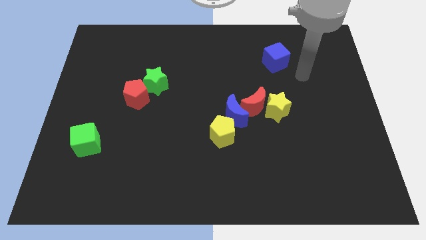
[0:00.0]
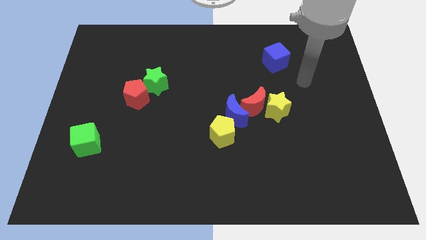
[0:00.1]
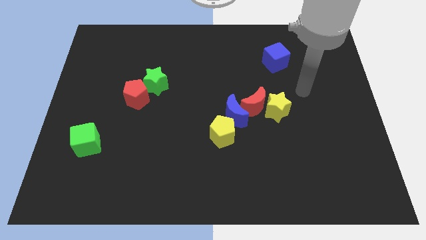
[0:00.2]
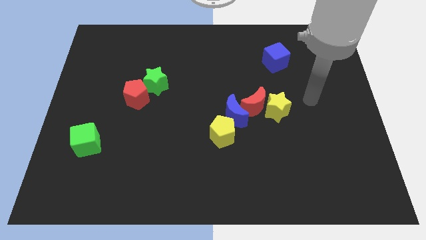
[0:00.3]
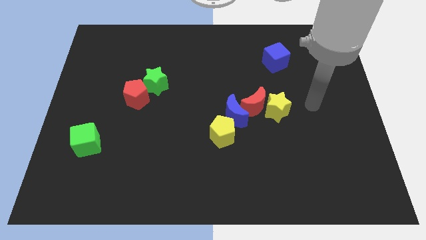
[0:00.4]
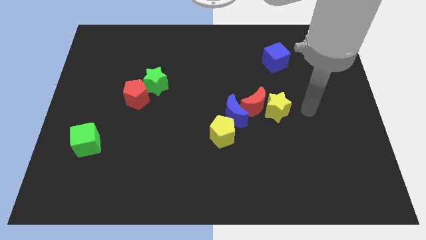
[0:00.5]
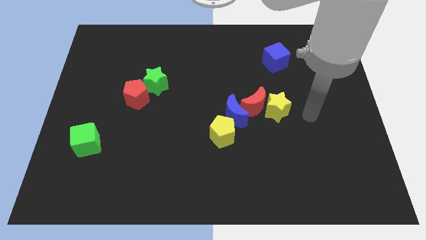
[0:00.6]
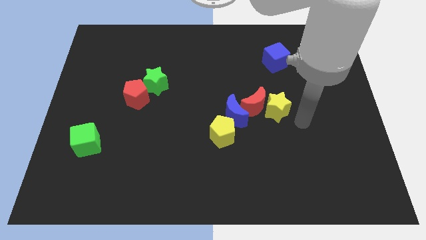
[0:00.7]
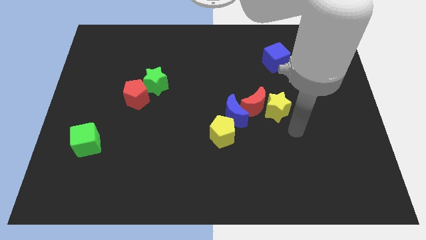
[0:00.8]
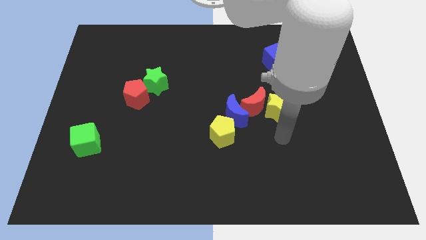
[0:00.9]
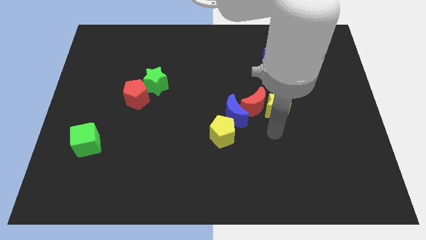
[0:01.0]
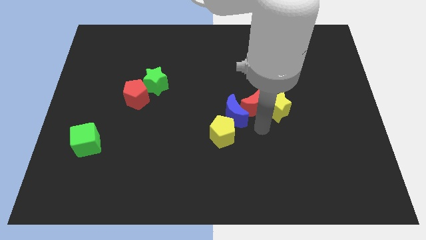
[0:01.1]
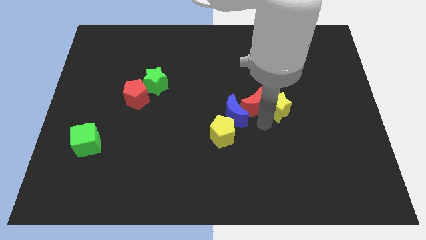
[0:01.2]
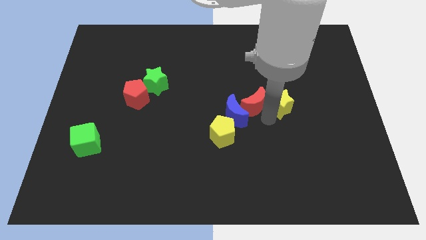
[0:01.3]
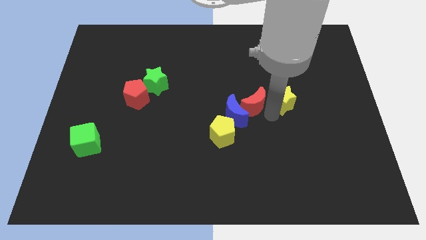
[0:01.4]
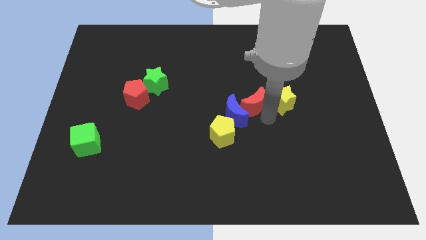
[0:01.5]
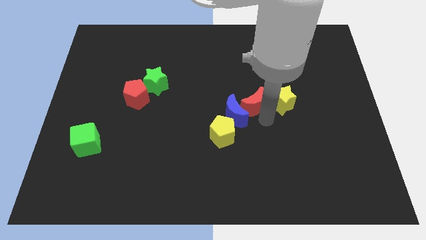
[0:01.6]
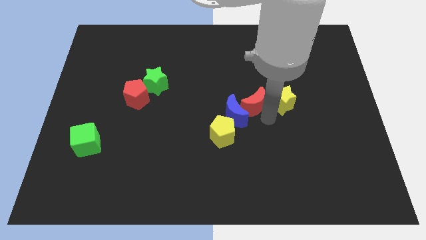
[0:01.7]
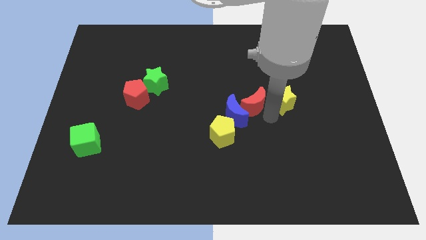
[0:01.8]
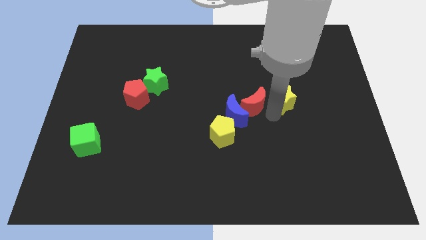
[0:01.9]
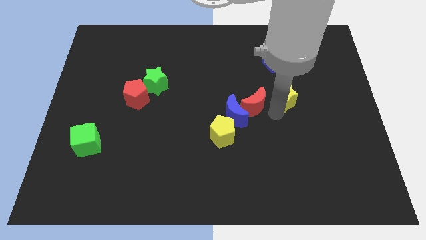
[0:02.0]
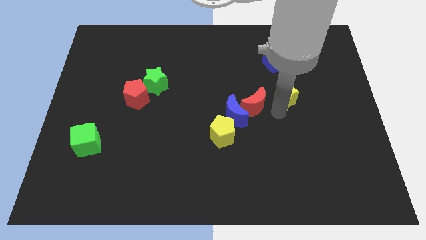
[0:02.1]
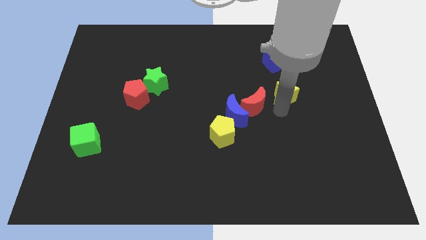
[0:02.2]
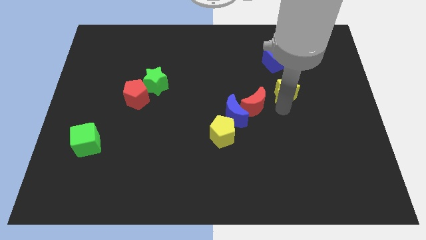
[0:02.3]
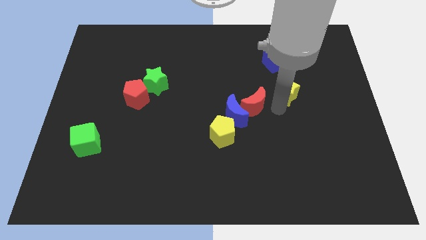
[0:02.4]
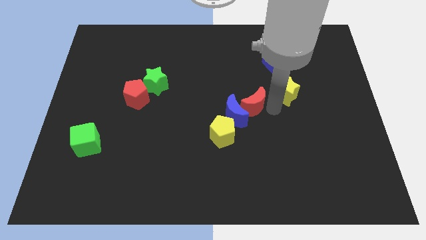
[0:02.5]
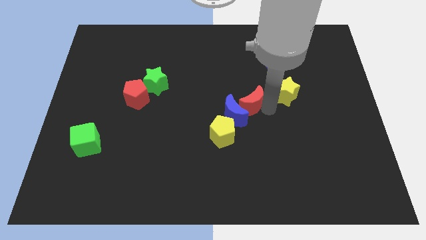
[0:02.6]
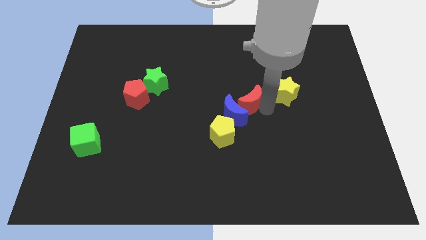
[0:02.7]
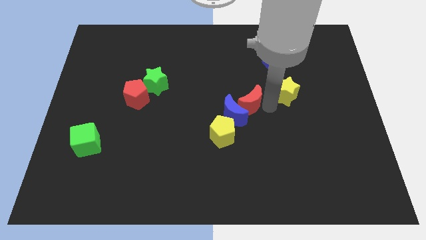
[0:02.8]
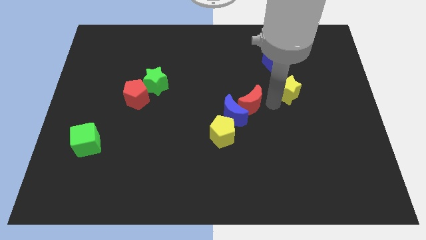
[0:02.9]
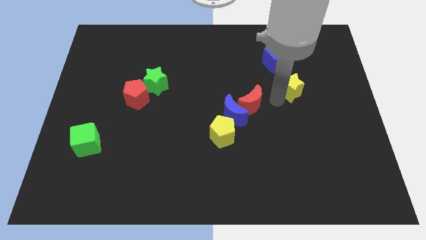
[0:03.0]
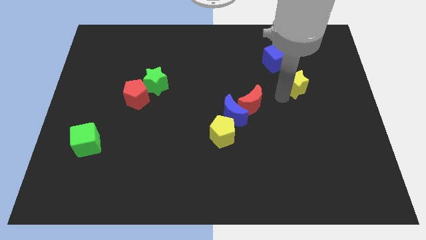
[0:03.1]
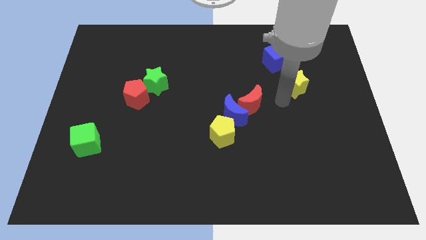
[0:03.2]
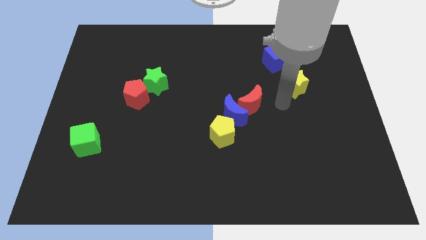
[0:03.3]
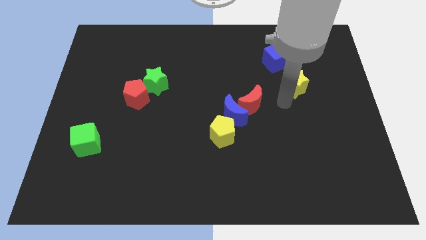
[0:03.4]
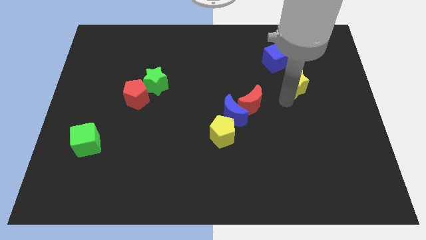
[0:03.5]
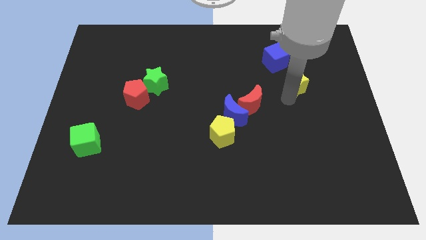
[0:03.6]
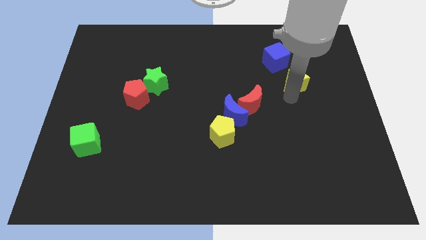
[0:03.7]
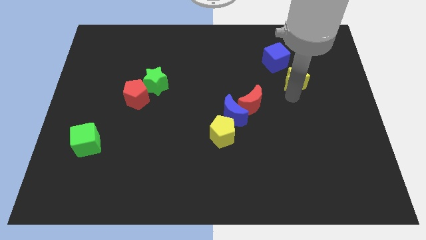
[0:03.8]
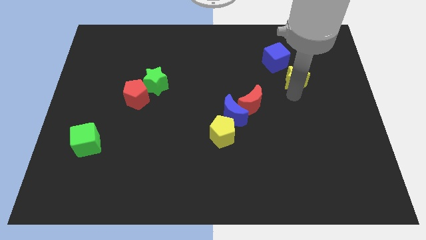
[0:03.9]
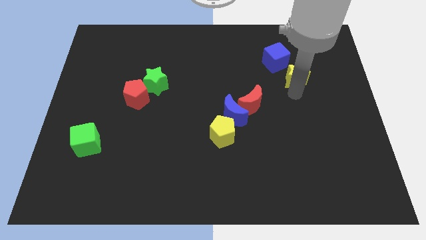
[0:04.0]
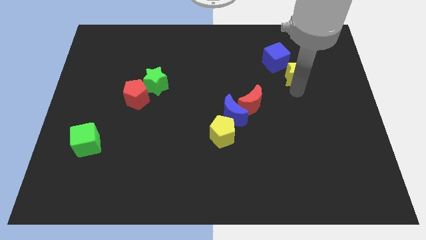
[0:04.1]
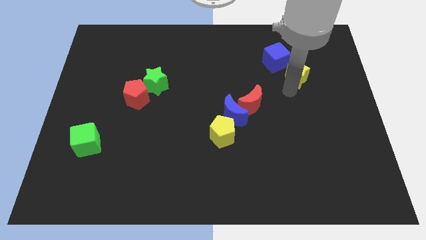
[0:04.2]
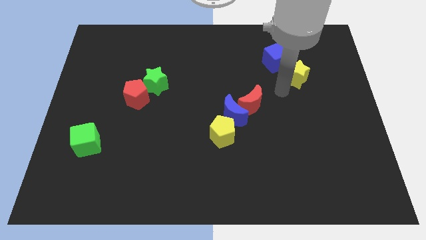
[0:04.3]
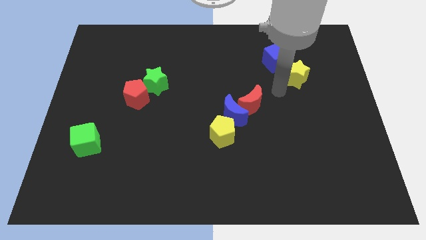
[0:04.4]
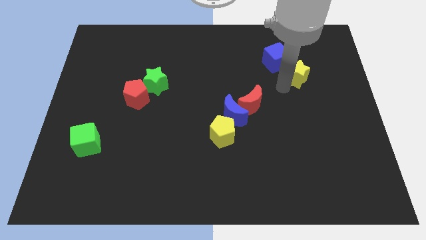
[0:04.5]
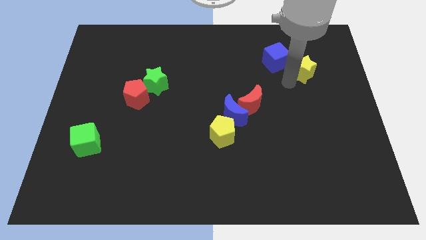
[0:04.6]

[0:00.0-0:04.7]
put the yellow star to the right of the blue cube

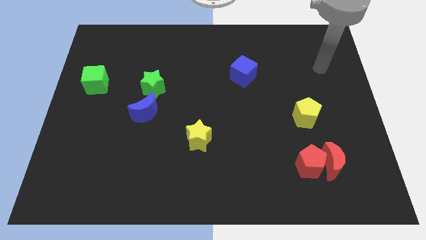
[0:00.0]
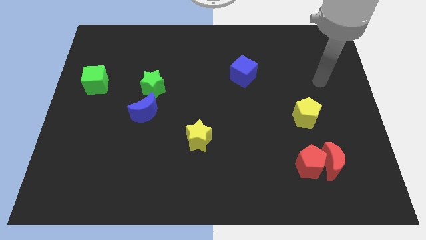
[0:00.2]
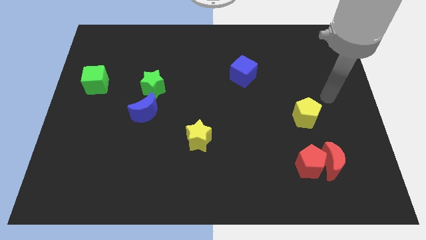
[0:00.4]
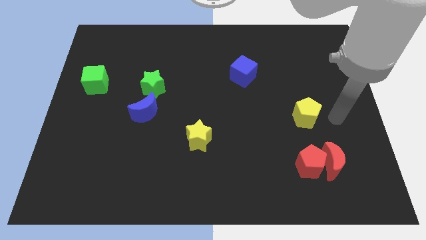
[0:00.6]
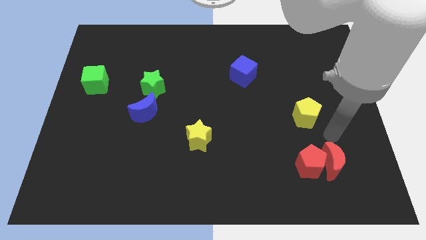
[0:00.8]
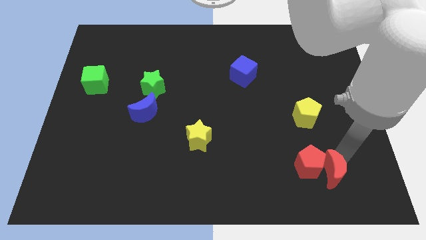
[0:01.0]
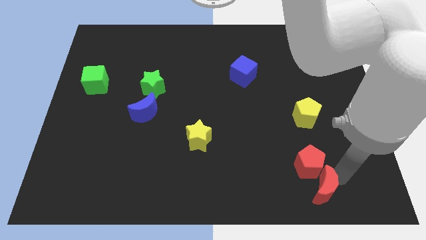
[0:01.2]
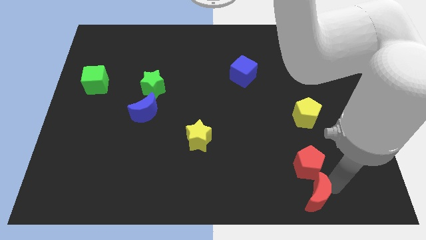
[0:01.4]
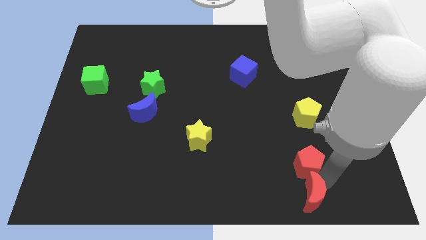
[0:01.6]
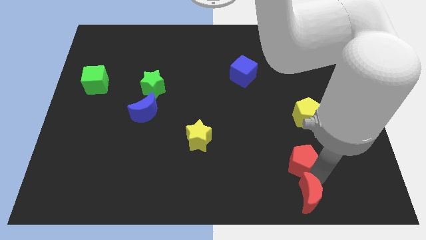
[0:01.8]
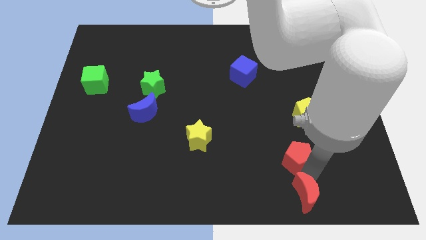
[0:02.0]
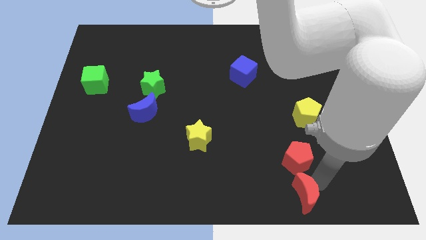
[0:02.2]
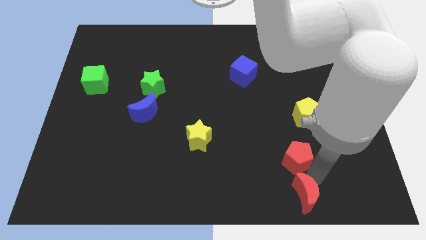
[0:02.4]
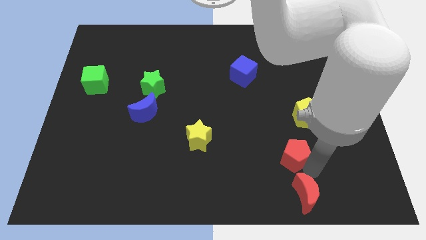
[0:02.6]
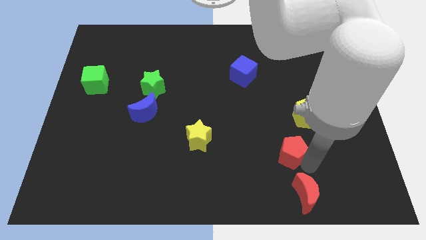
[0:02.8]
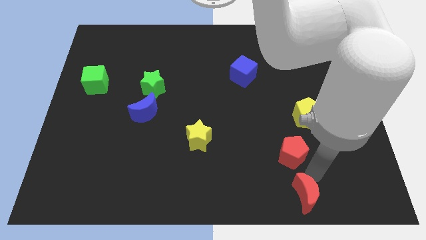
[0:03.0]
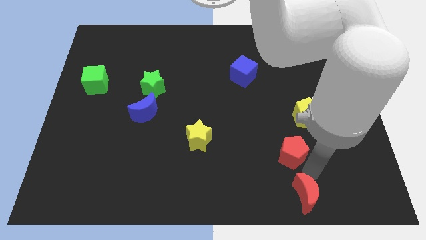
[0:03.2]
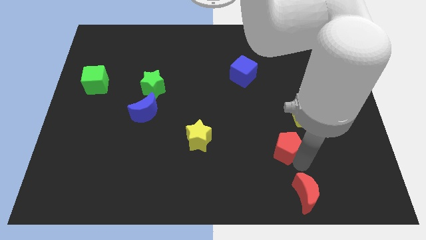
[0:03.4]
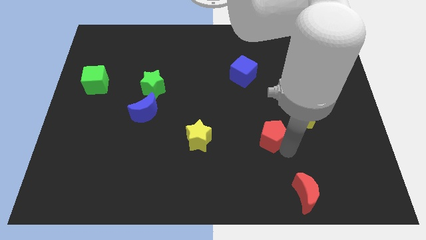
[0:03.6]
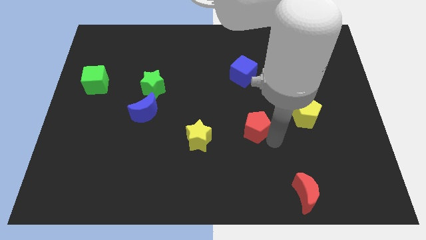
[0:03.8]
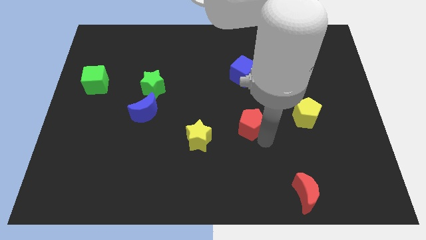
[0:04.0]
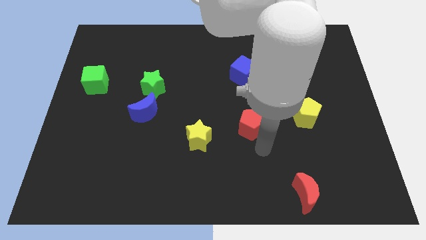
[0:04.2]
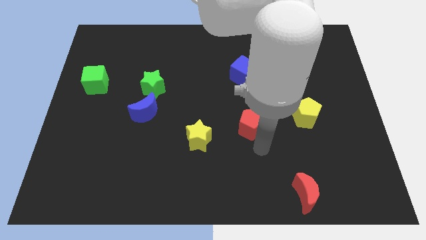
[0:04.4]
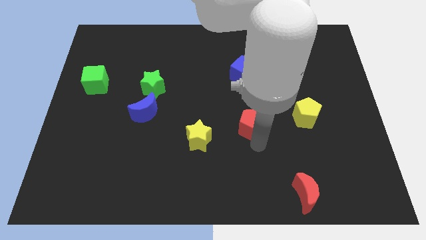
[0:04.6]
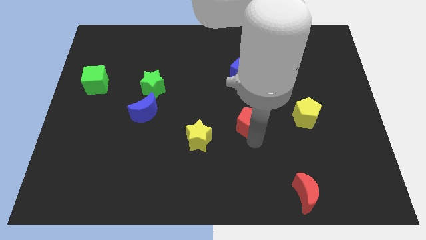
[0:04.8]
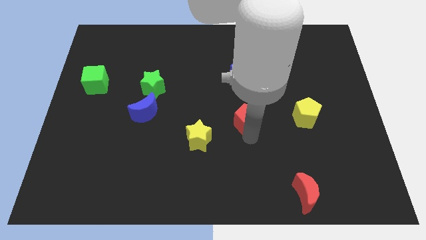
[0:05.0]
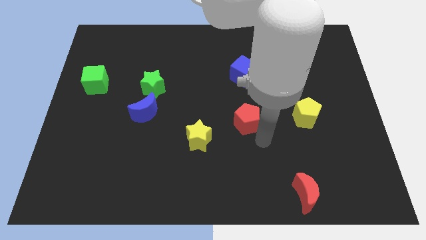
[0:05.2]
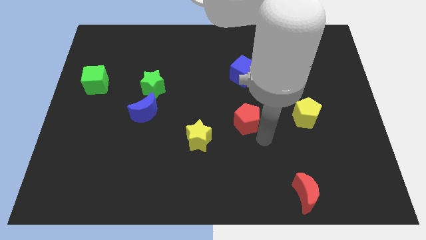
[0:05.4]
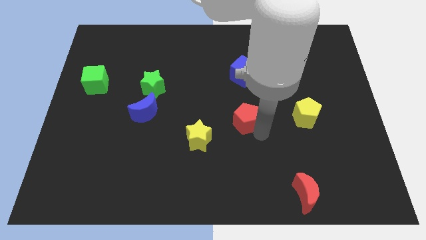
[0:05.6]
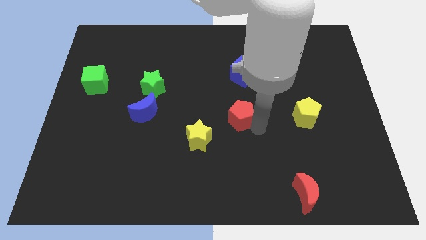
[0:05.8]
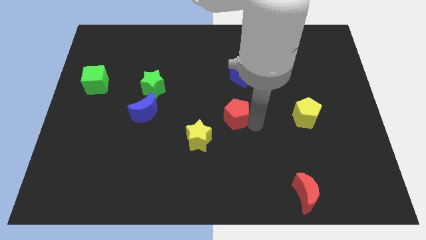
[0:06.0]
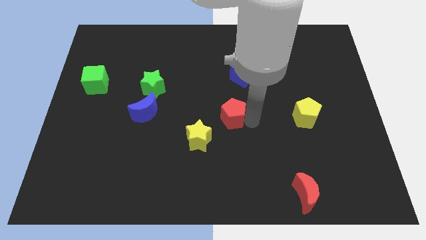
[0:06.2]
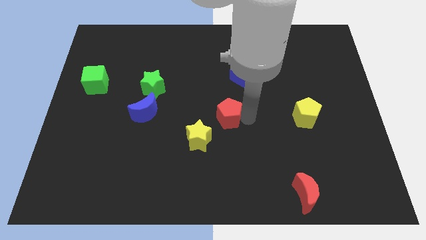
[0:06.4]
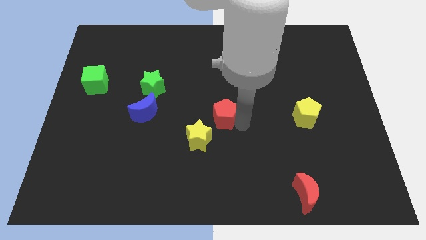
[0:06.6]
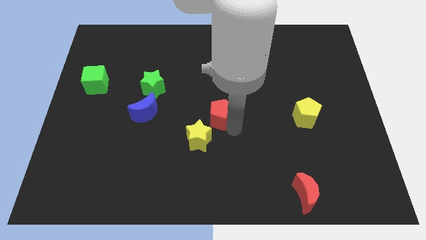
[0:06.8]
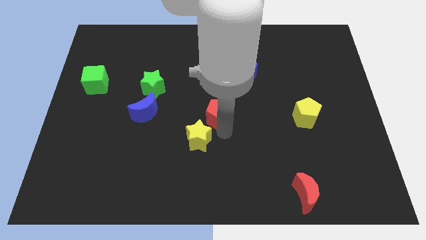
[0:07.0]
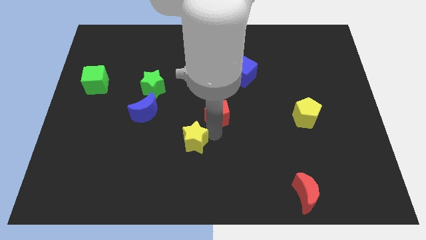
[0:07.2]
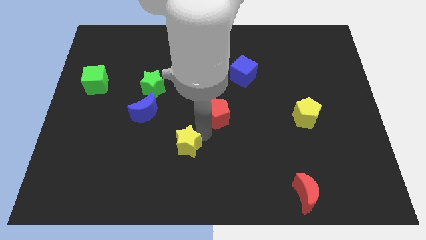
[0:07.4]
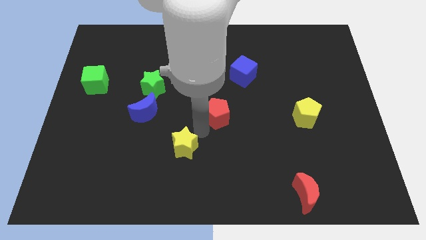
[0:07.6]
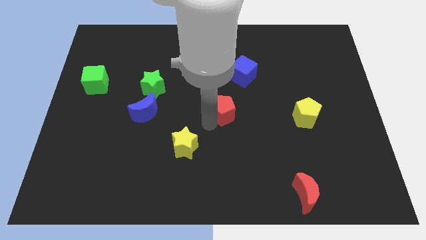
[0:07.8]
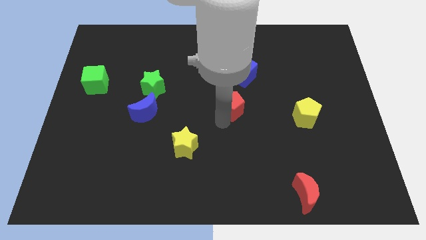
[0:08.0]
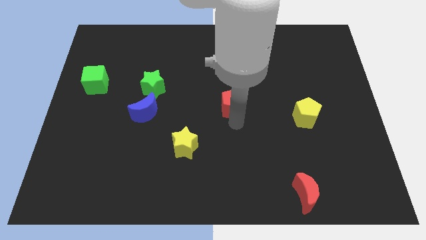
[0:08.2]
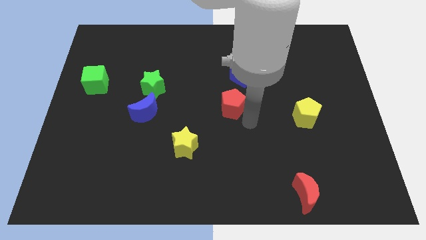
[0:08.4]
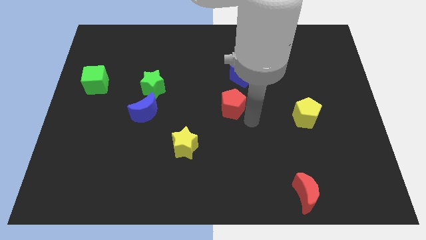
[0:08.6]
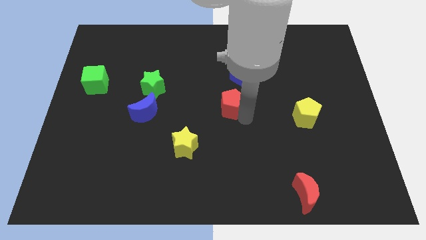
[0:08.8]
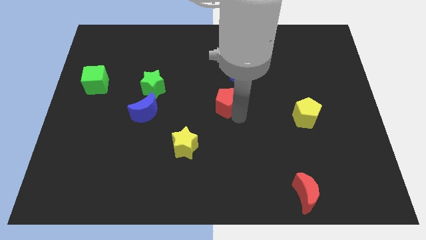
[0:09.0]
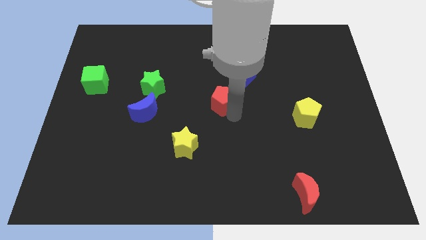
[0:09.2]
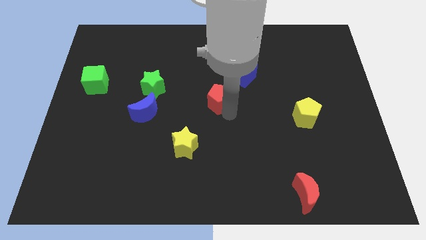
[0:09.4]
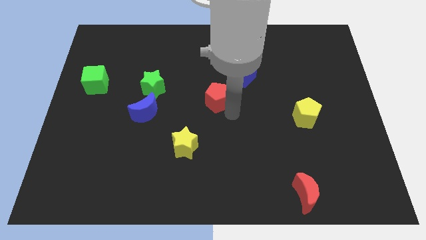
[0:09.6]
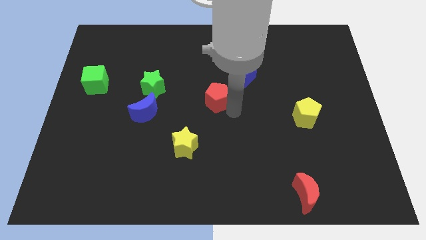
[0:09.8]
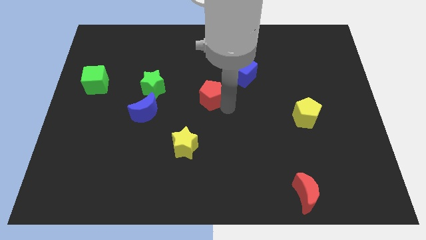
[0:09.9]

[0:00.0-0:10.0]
push the red pentagon to the right of the green star
